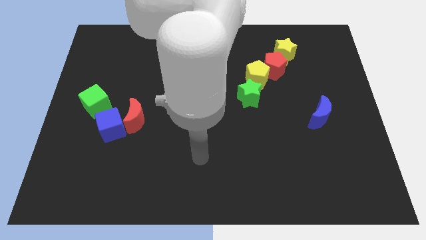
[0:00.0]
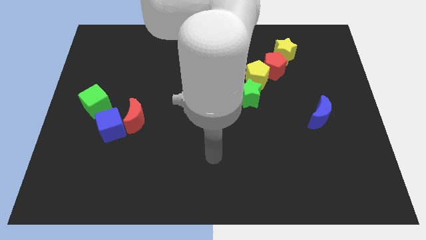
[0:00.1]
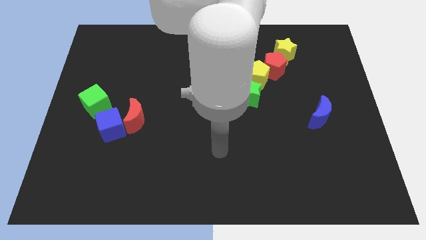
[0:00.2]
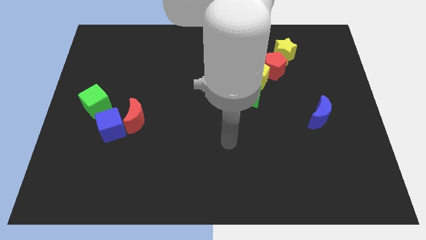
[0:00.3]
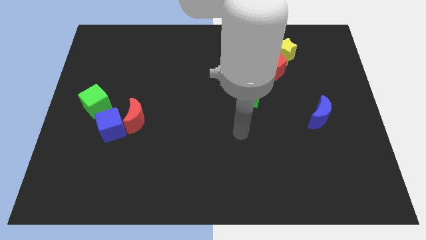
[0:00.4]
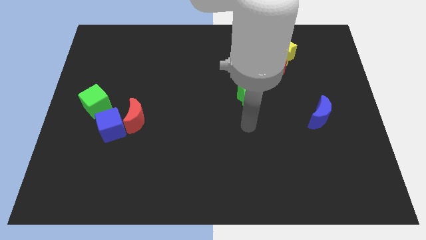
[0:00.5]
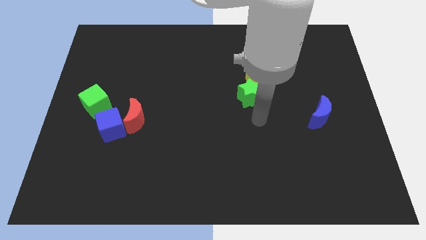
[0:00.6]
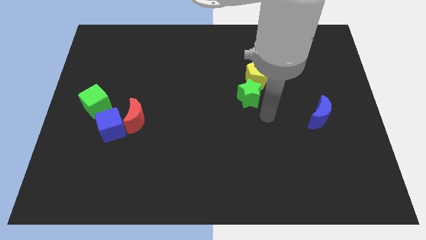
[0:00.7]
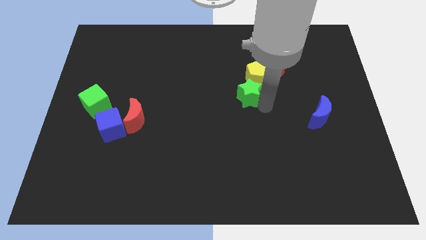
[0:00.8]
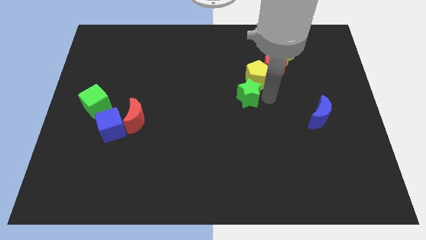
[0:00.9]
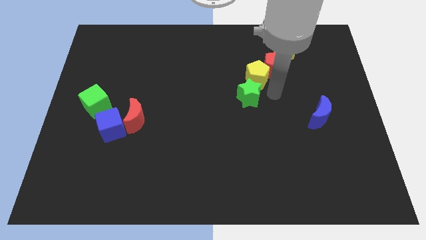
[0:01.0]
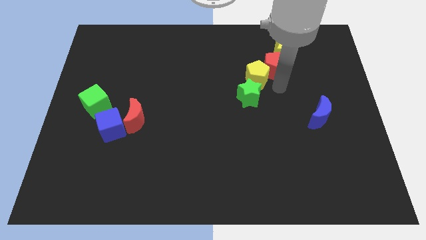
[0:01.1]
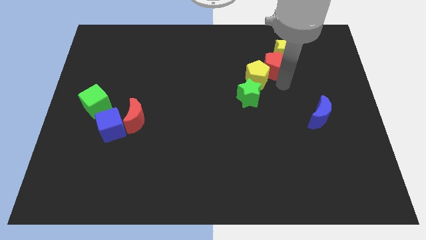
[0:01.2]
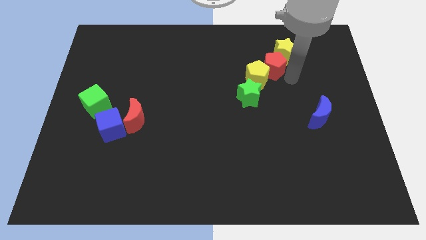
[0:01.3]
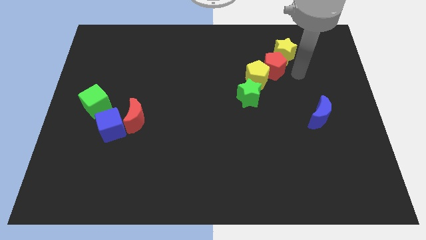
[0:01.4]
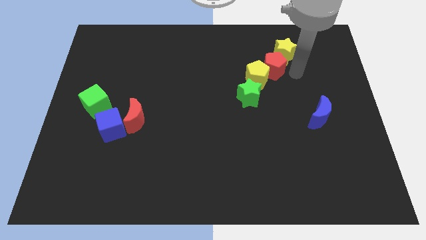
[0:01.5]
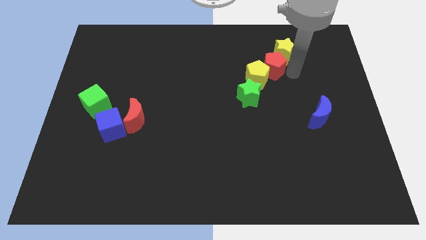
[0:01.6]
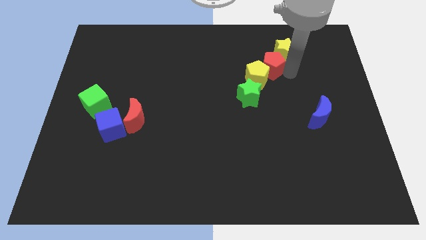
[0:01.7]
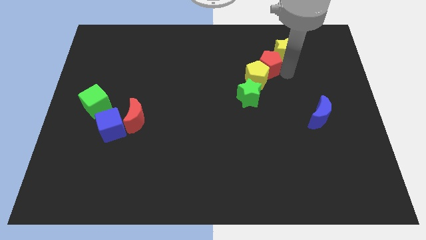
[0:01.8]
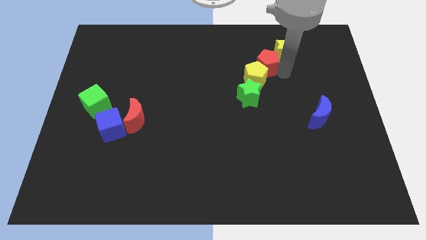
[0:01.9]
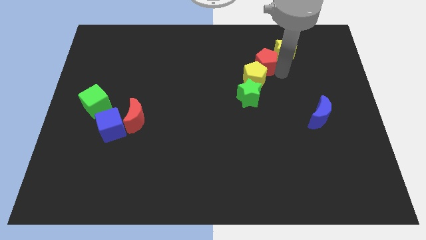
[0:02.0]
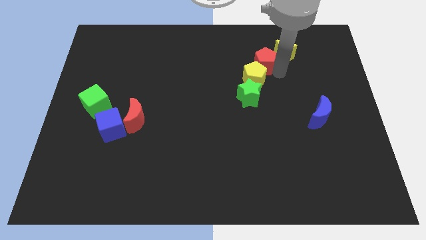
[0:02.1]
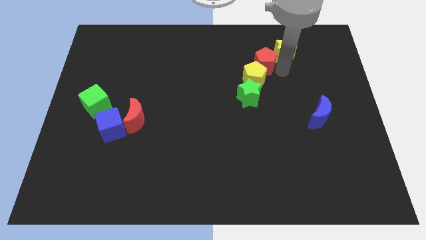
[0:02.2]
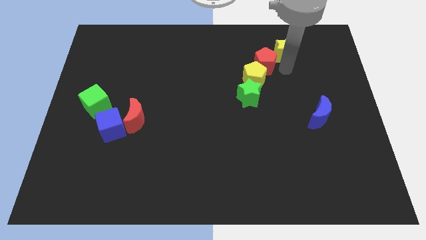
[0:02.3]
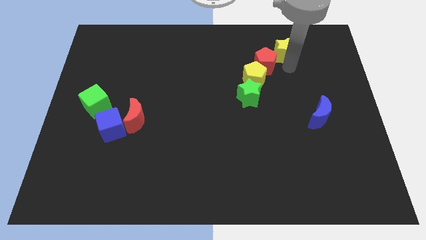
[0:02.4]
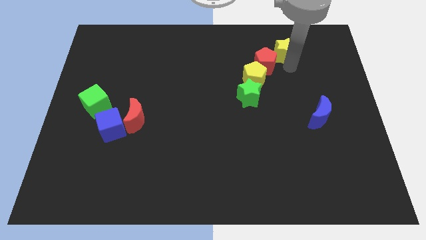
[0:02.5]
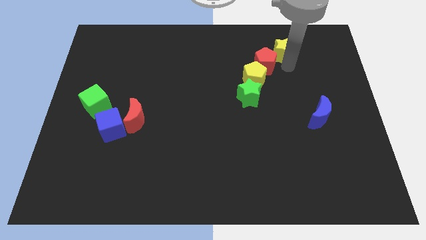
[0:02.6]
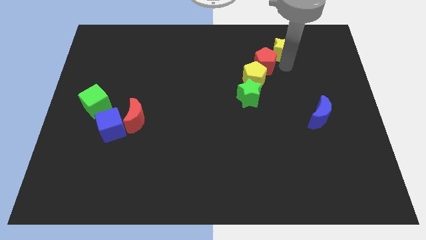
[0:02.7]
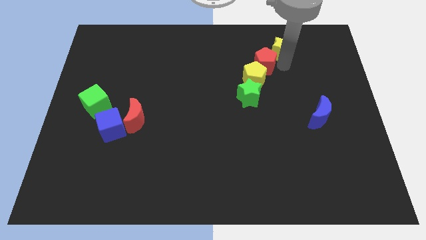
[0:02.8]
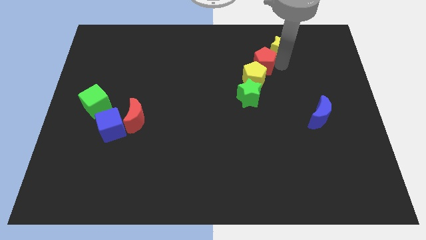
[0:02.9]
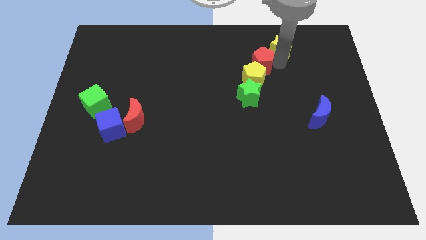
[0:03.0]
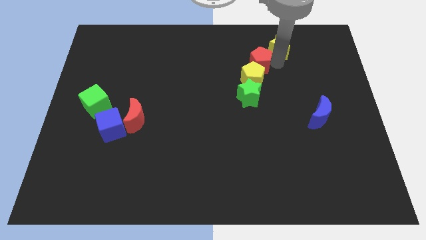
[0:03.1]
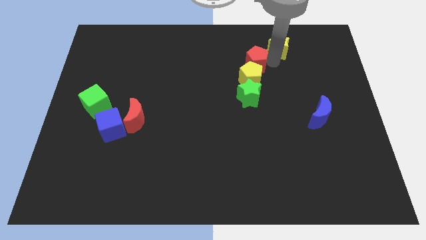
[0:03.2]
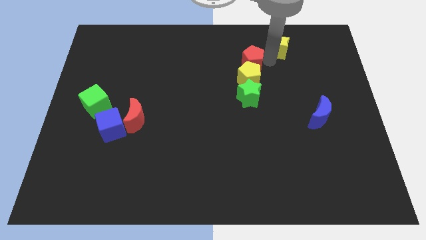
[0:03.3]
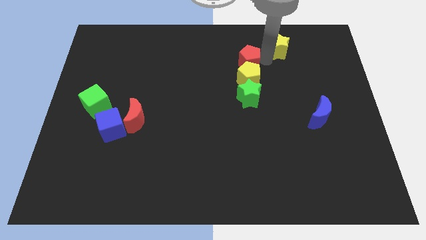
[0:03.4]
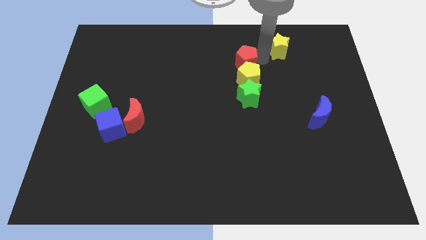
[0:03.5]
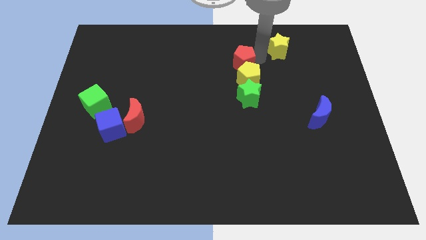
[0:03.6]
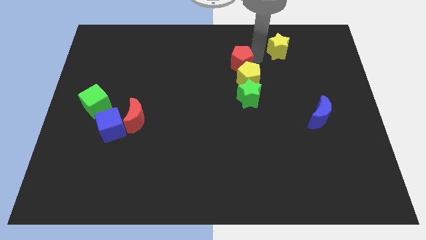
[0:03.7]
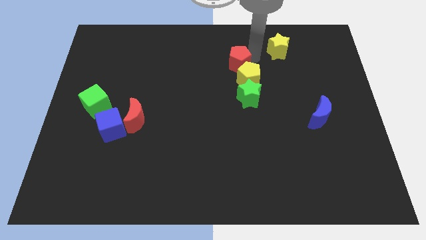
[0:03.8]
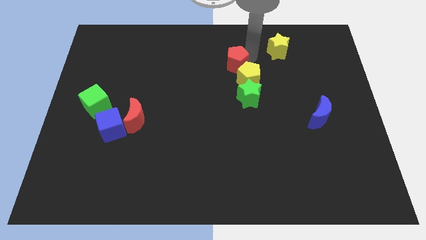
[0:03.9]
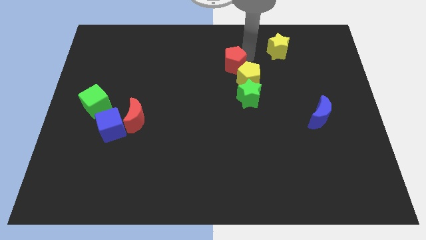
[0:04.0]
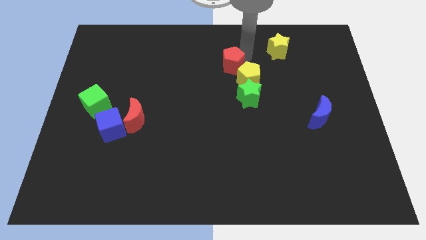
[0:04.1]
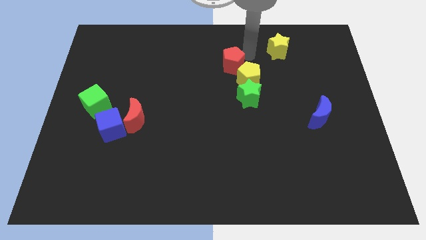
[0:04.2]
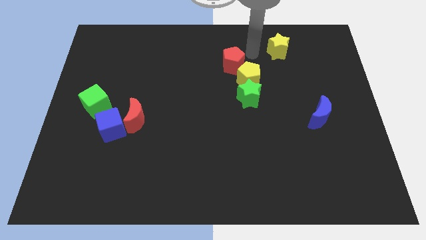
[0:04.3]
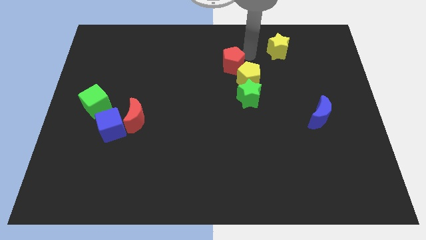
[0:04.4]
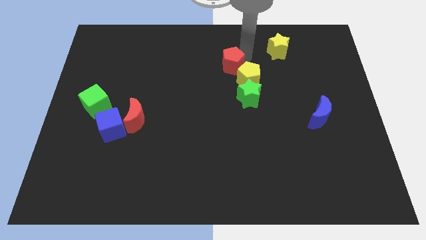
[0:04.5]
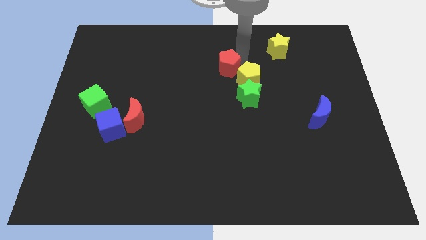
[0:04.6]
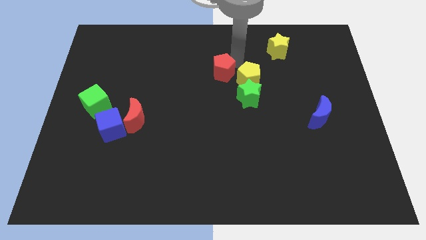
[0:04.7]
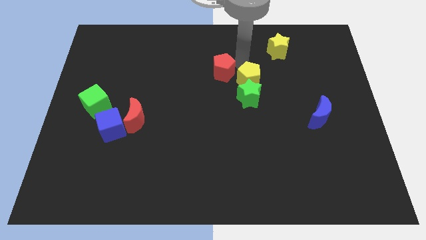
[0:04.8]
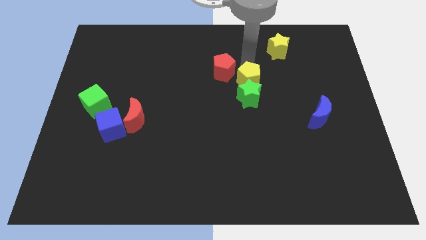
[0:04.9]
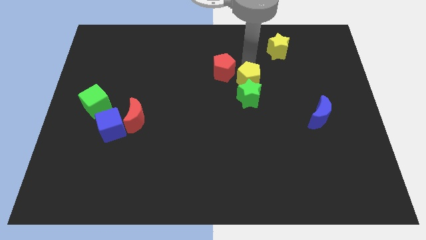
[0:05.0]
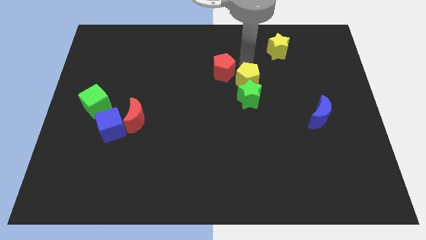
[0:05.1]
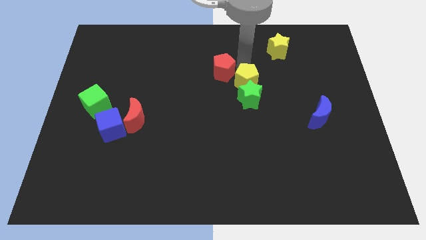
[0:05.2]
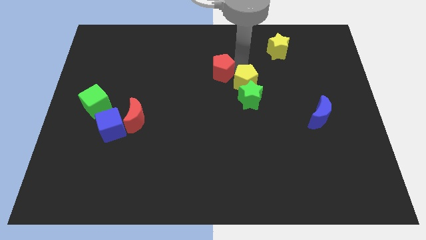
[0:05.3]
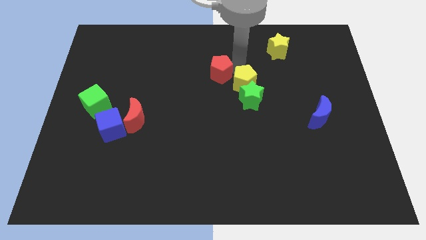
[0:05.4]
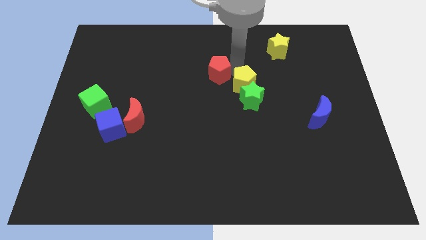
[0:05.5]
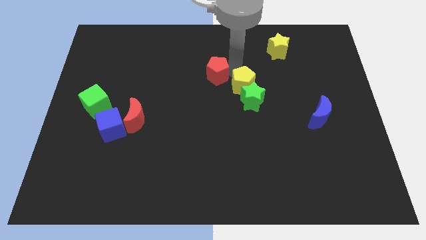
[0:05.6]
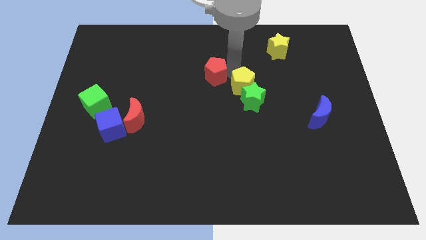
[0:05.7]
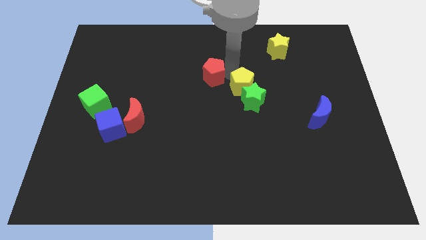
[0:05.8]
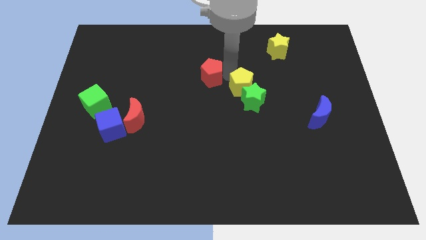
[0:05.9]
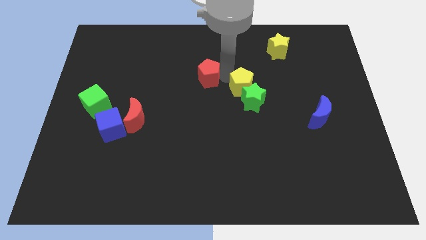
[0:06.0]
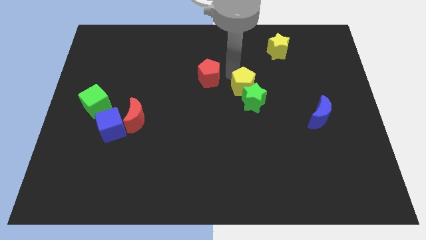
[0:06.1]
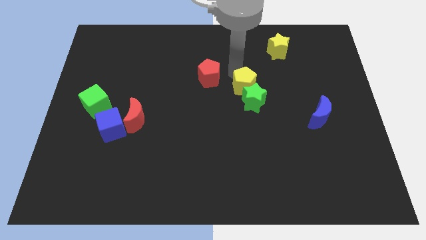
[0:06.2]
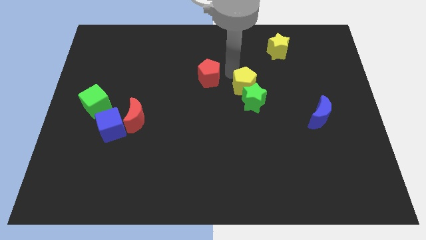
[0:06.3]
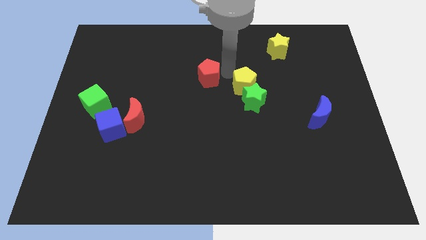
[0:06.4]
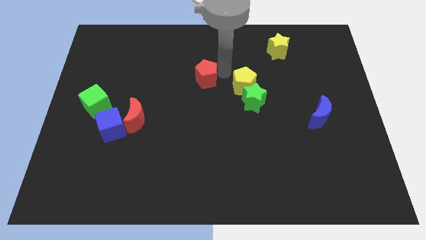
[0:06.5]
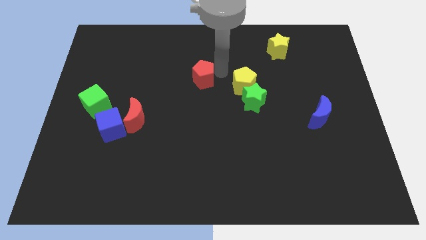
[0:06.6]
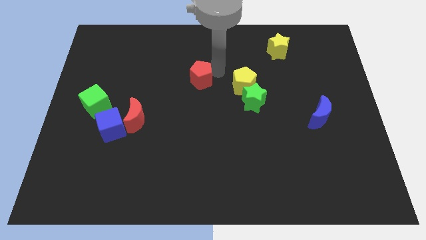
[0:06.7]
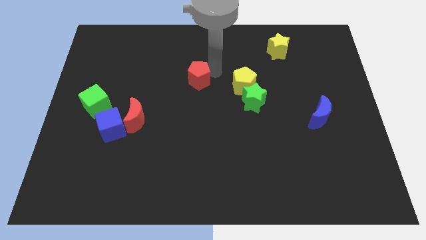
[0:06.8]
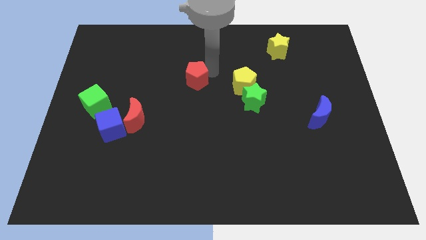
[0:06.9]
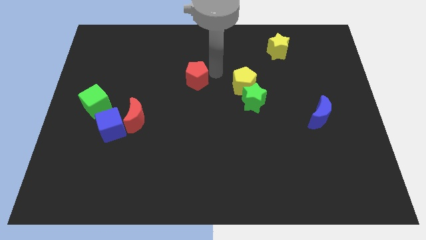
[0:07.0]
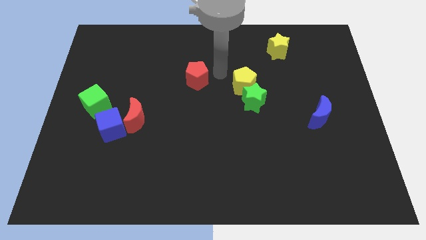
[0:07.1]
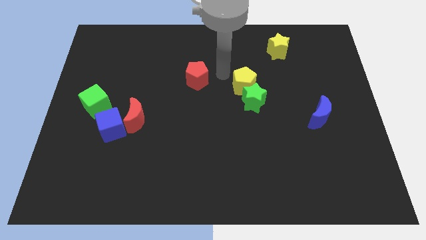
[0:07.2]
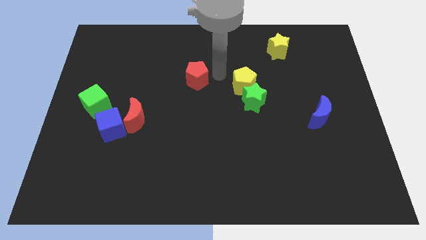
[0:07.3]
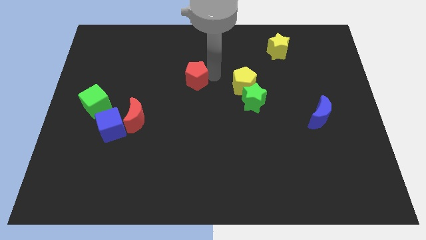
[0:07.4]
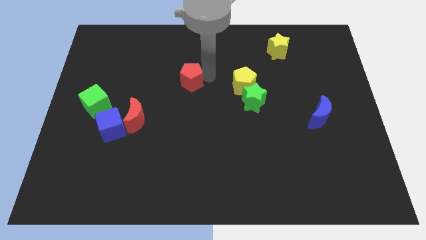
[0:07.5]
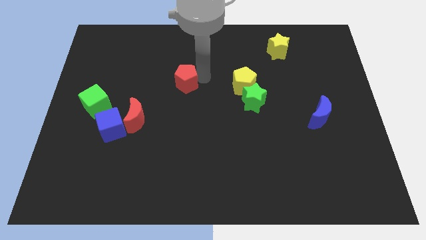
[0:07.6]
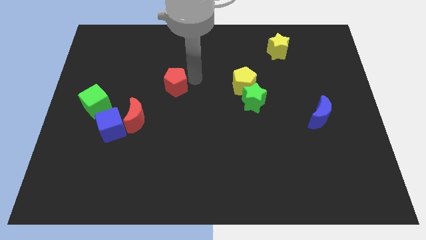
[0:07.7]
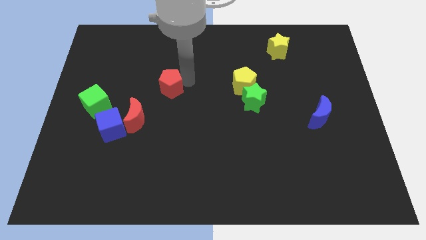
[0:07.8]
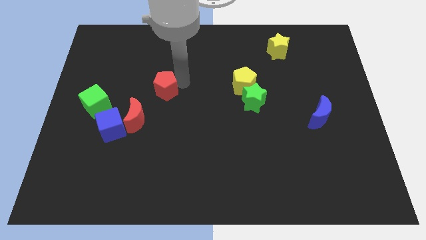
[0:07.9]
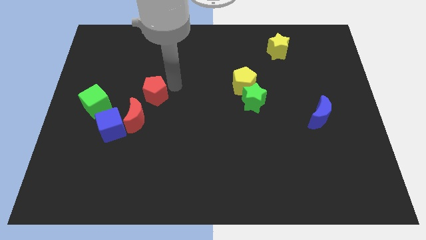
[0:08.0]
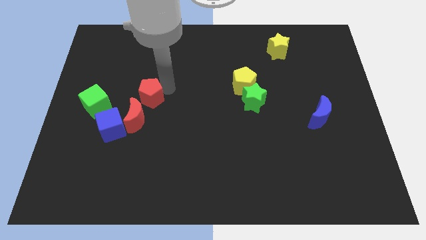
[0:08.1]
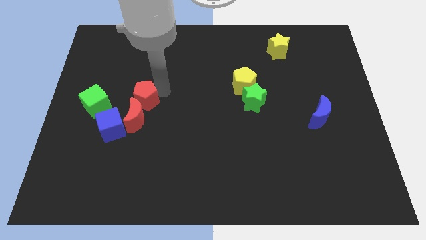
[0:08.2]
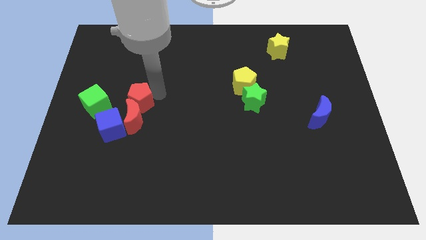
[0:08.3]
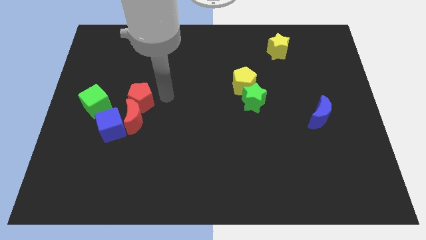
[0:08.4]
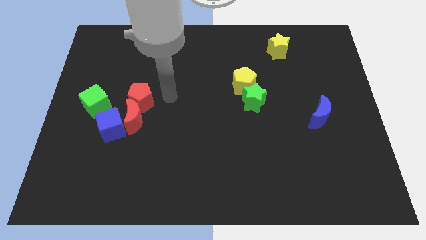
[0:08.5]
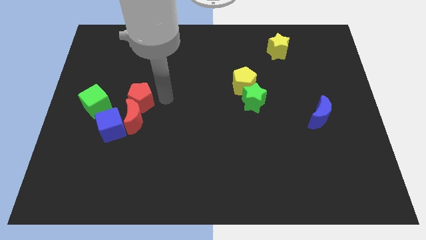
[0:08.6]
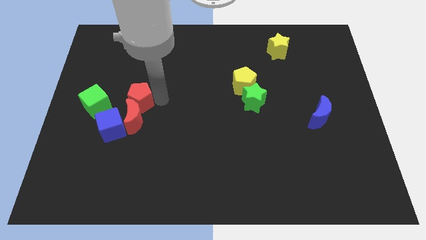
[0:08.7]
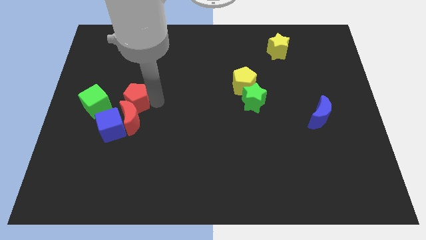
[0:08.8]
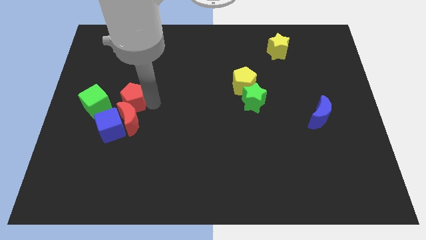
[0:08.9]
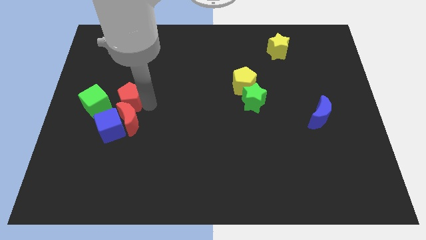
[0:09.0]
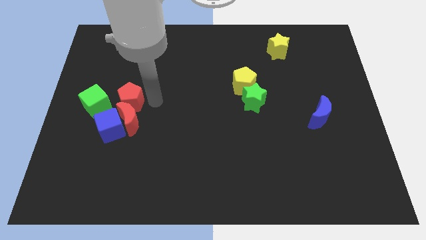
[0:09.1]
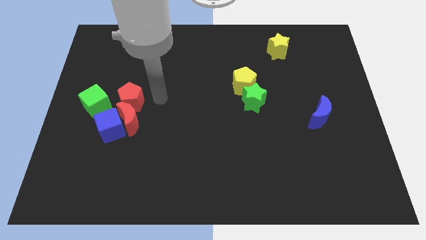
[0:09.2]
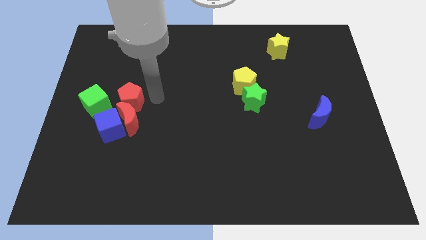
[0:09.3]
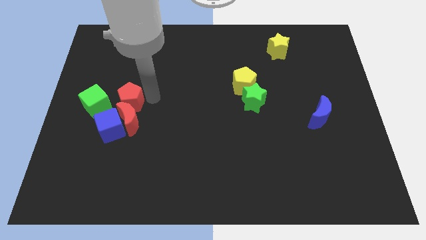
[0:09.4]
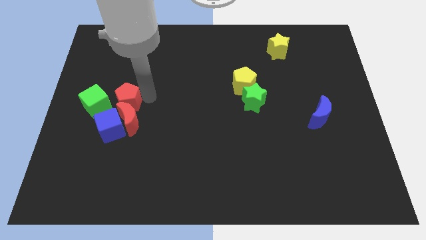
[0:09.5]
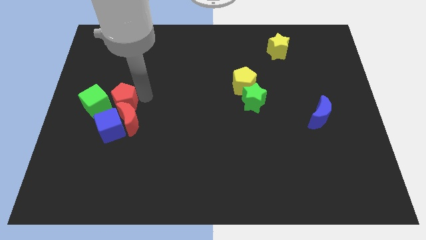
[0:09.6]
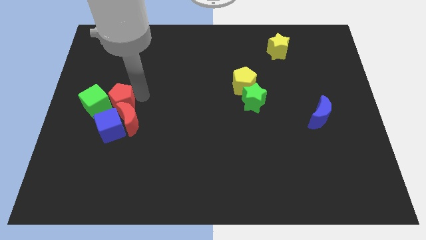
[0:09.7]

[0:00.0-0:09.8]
slide the red pentagon to the green cube
